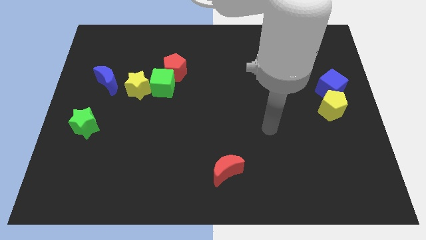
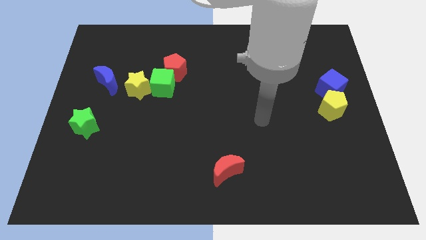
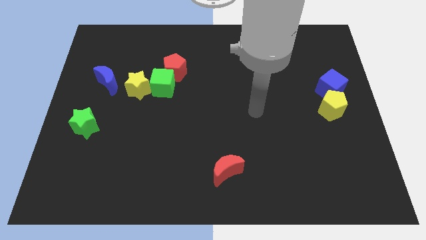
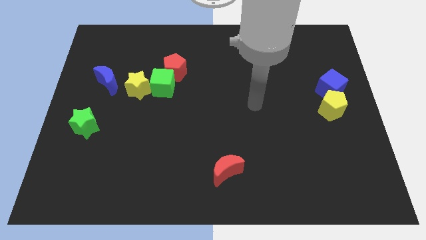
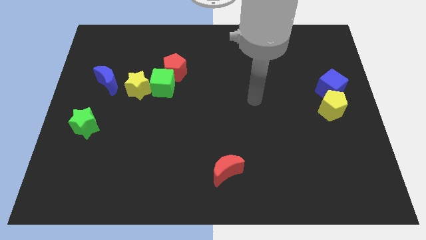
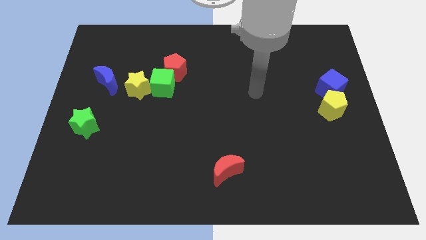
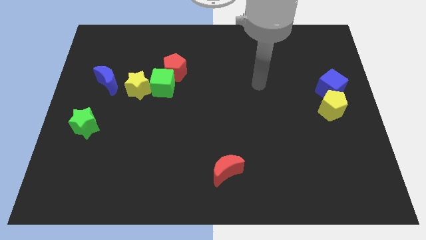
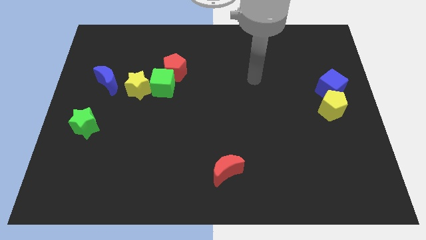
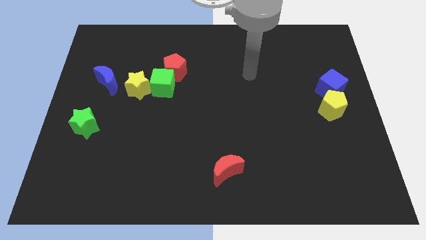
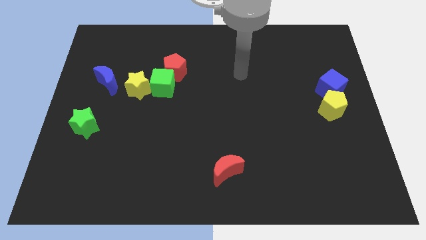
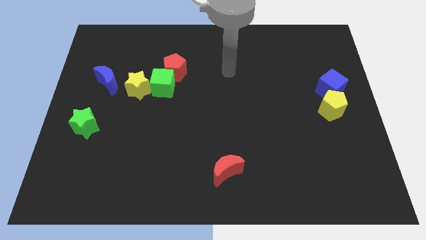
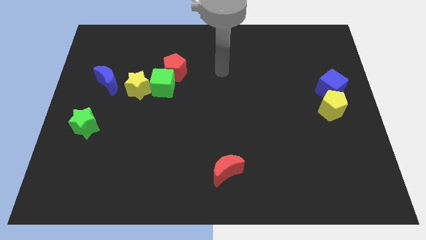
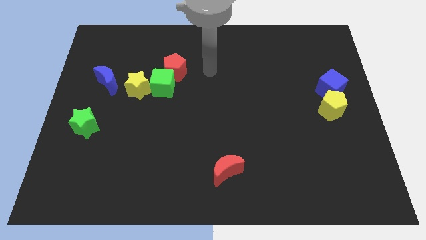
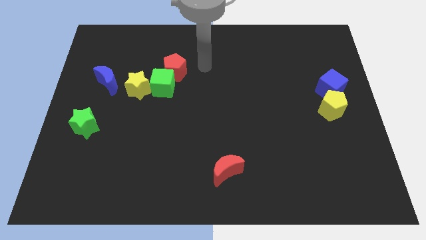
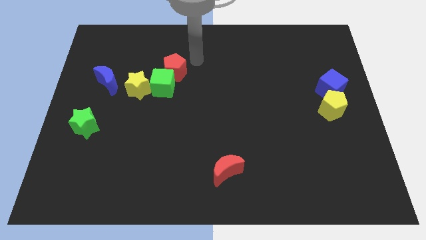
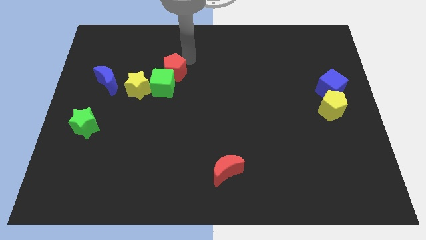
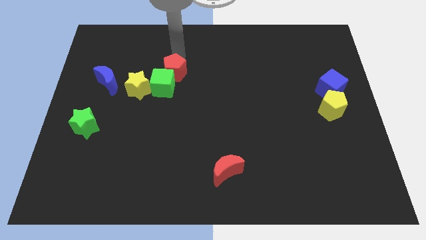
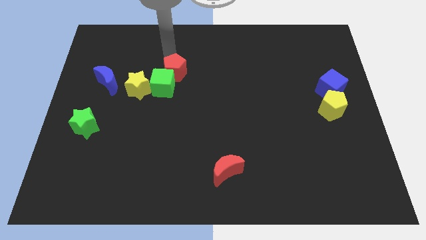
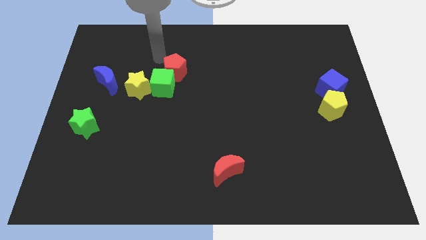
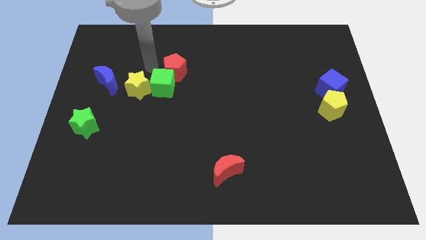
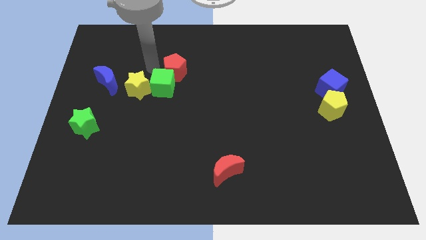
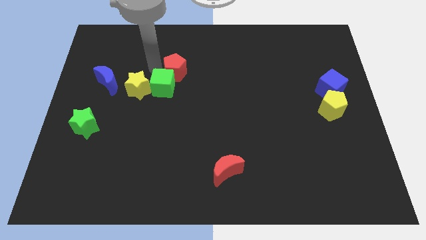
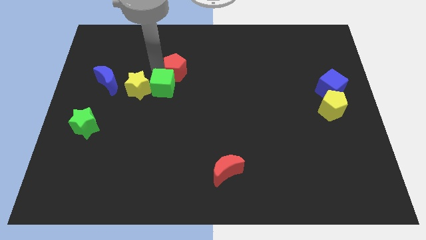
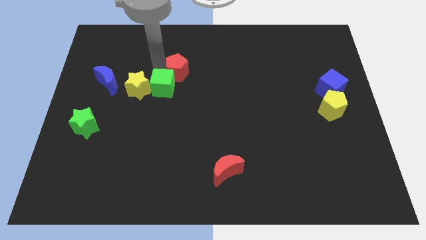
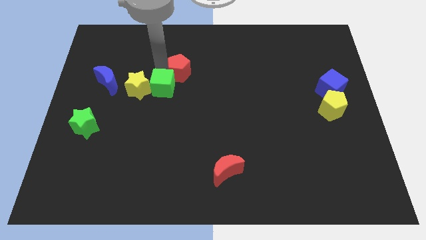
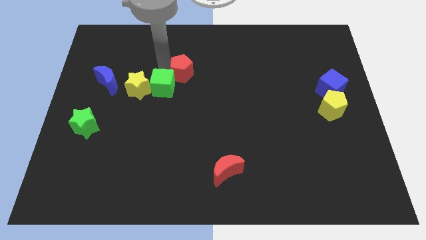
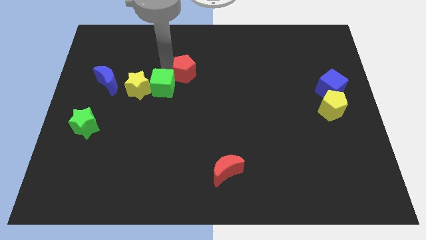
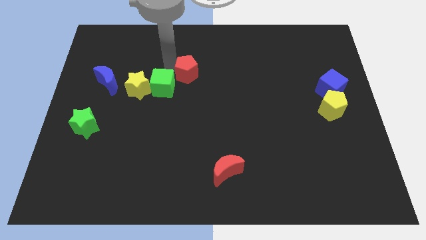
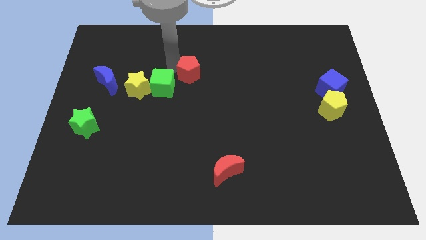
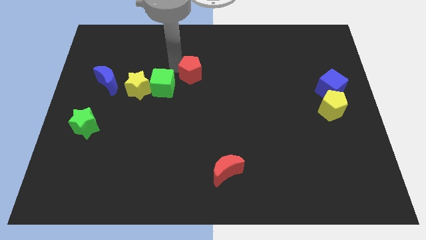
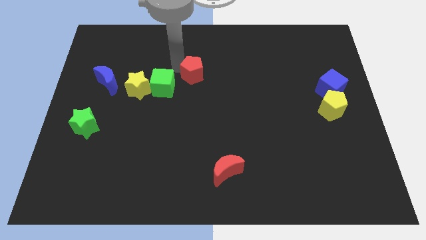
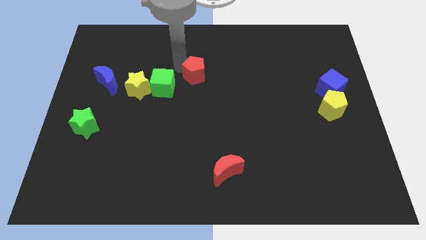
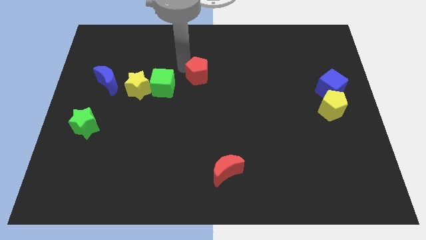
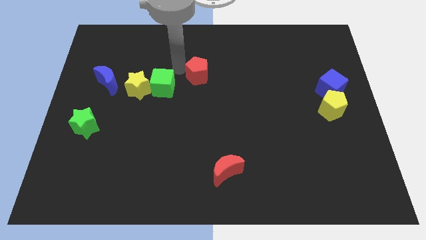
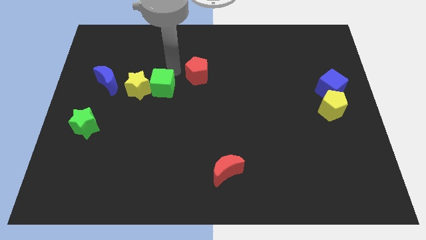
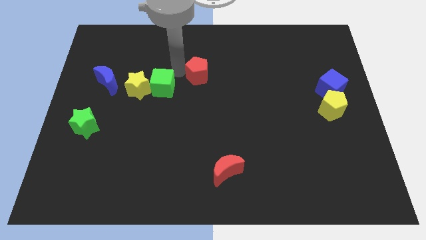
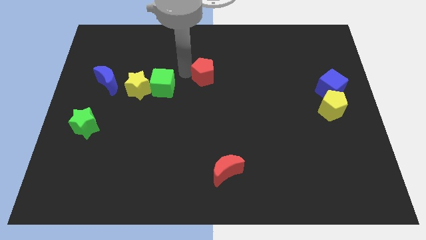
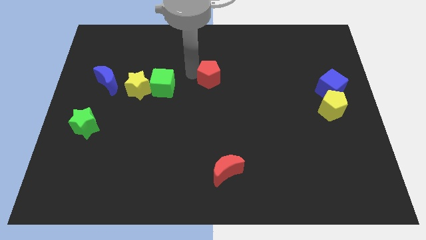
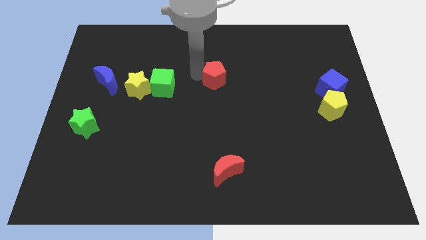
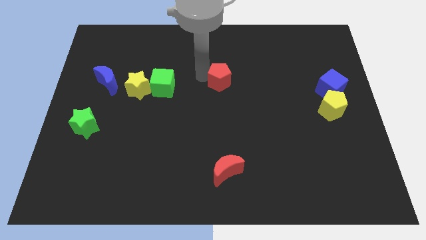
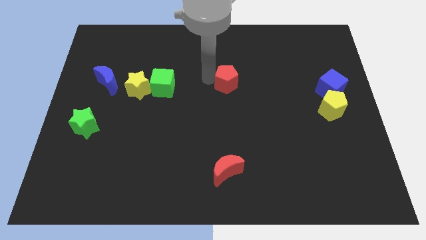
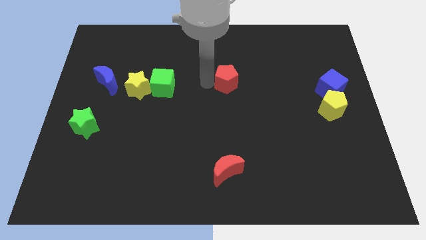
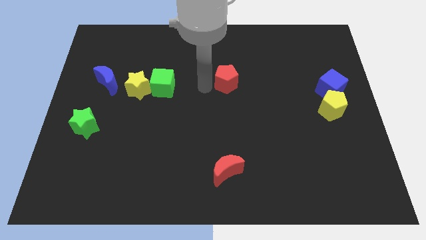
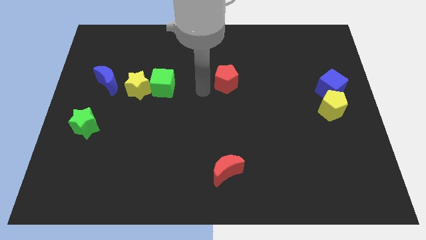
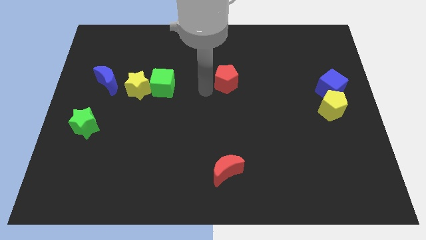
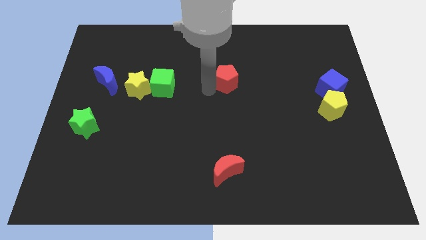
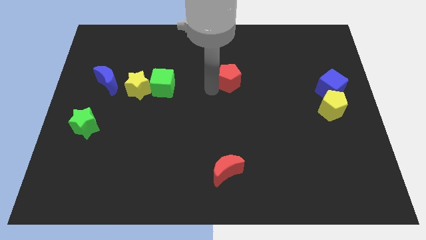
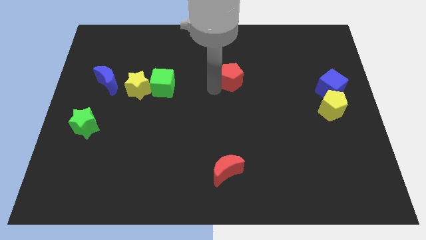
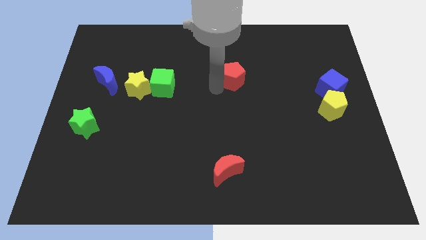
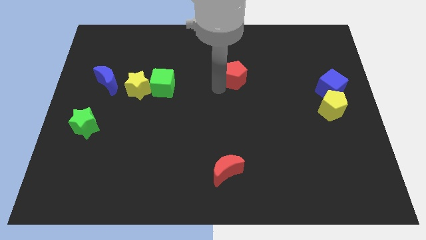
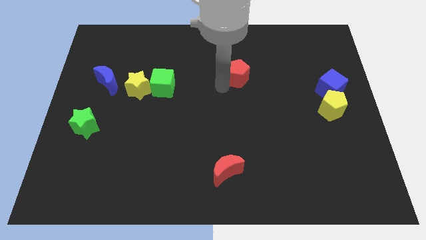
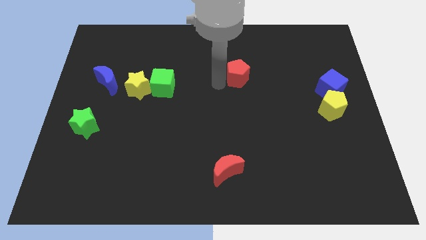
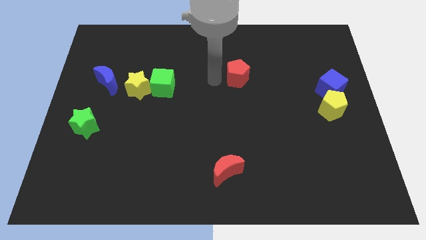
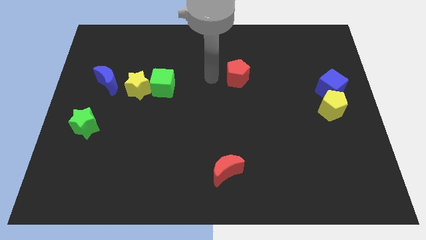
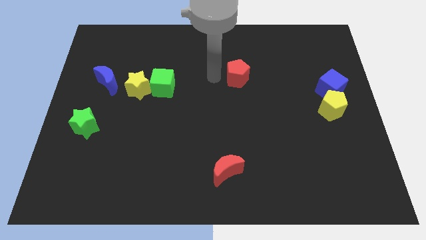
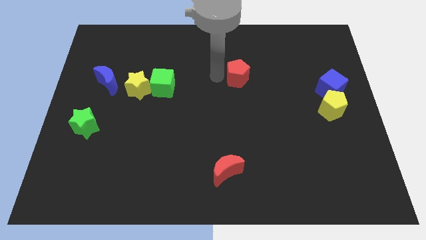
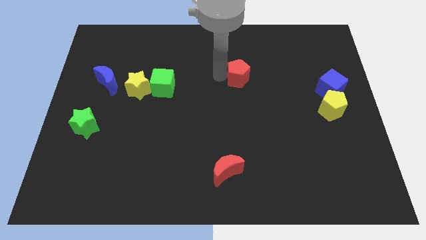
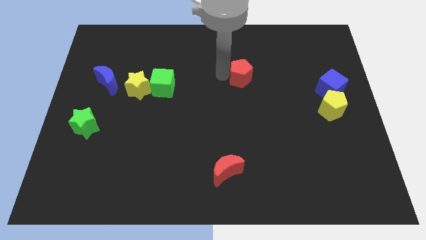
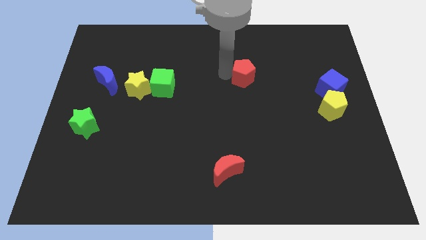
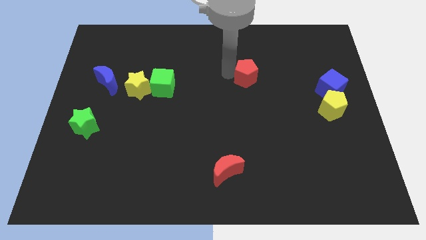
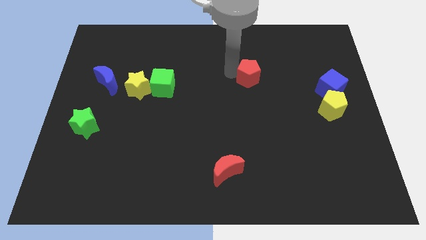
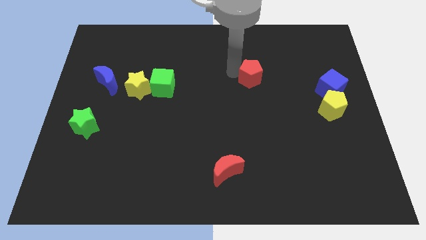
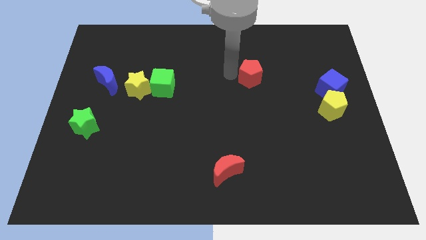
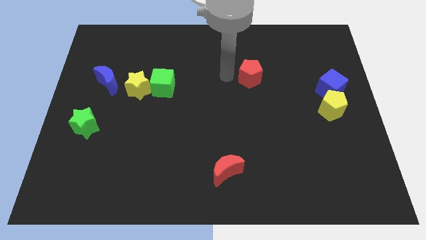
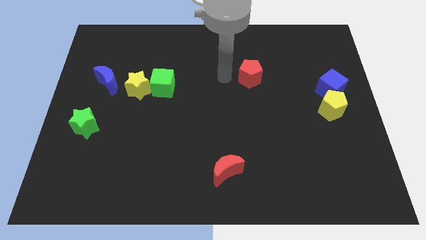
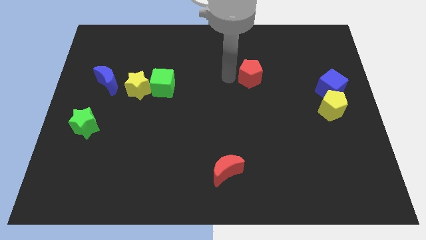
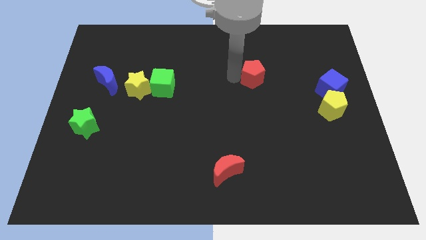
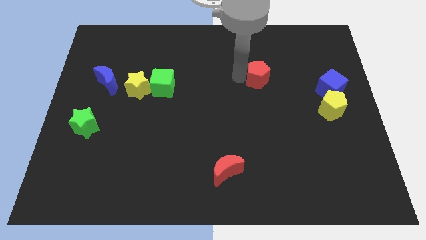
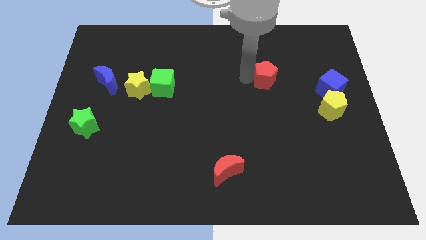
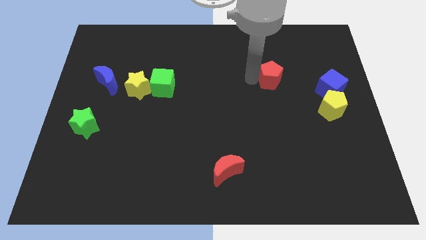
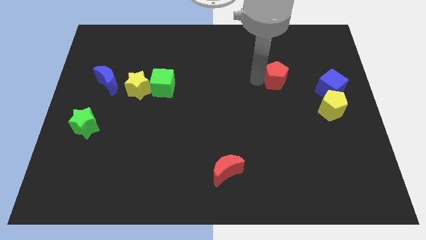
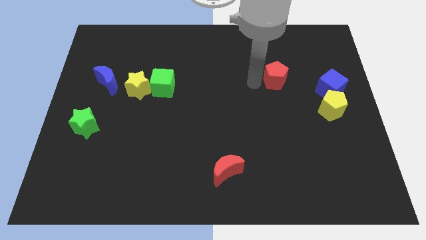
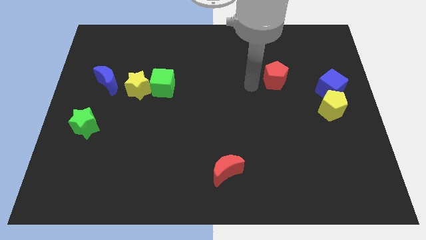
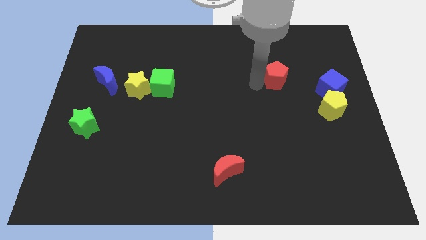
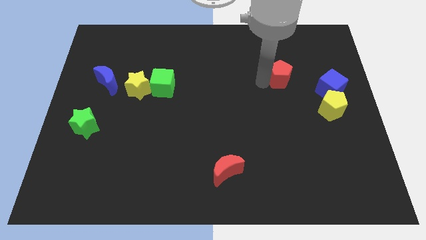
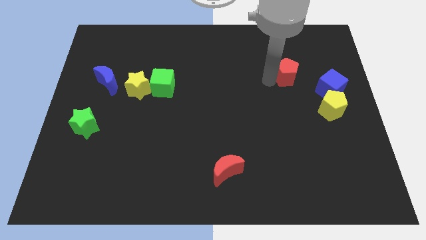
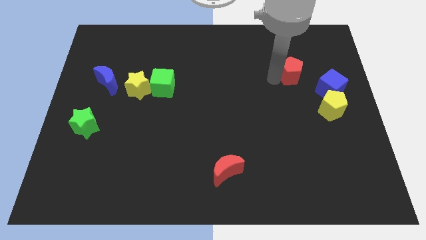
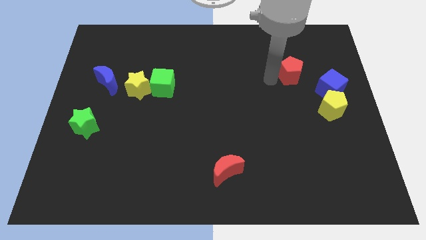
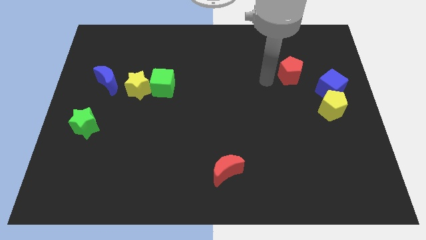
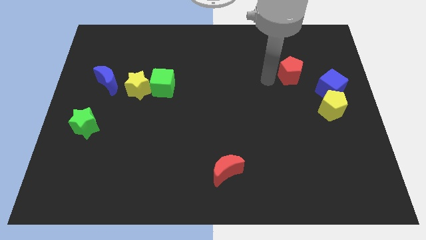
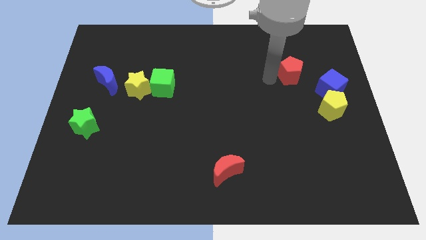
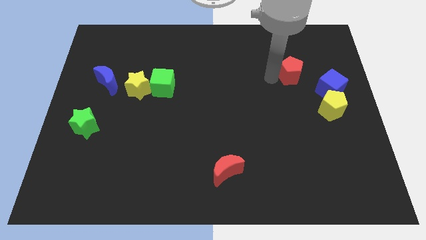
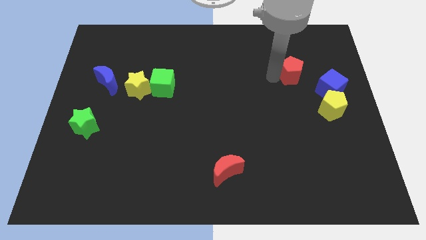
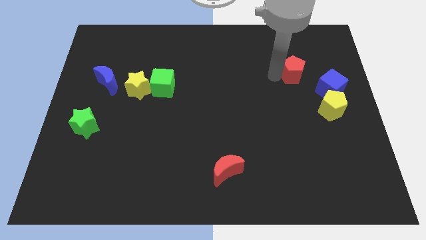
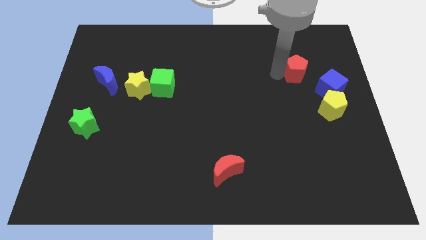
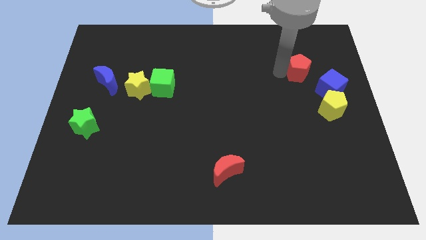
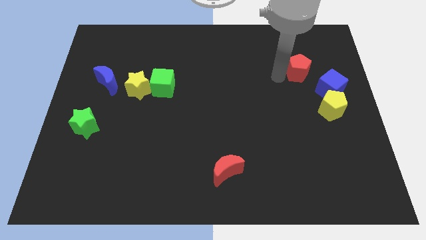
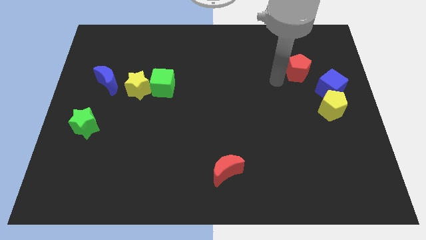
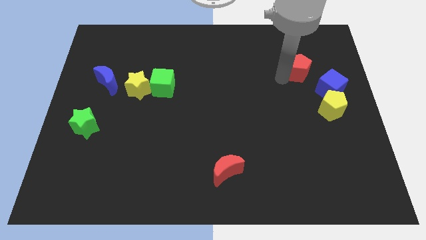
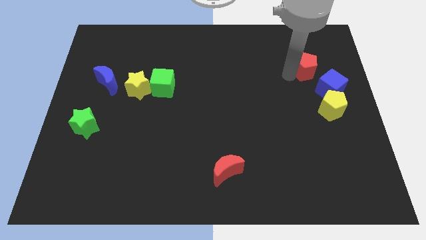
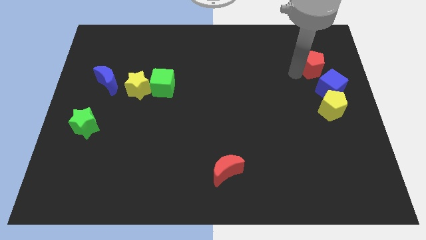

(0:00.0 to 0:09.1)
push the red pentagon to the top side of the blue cube
